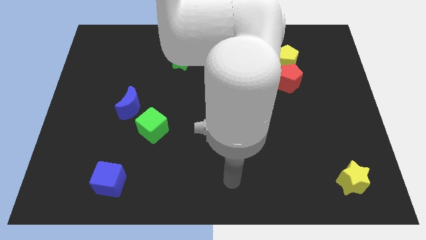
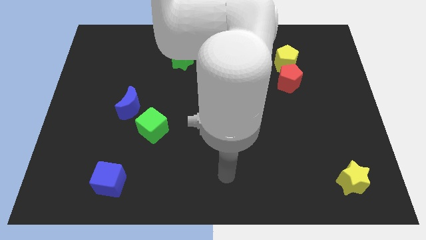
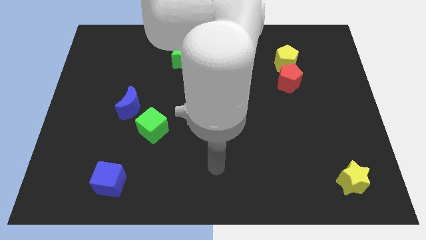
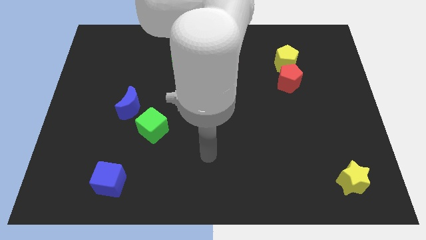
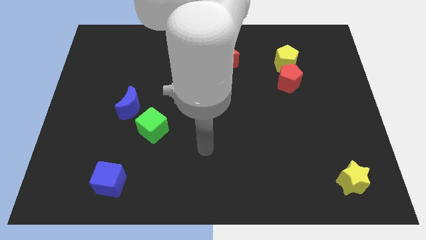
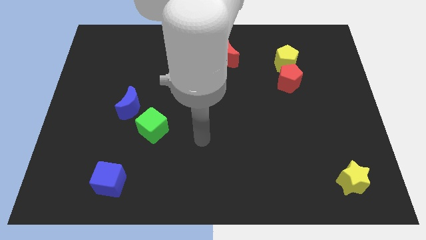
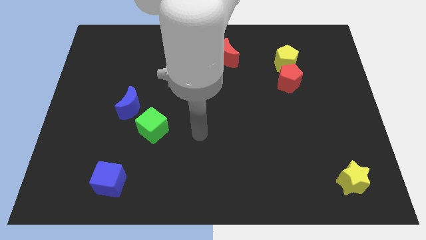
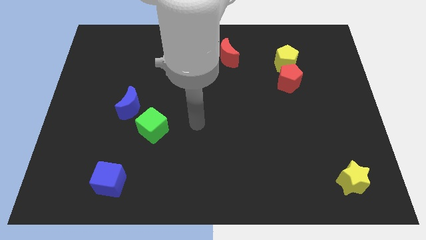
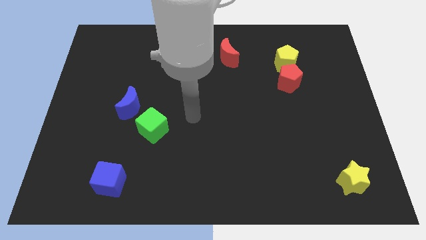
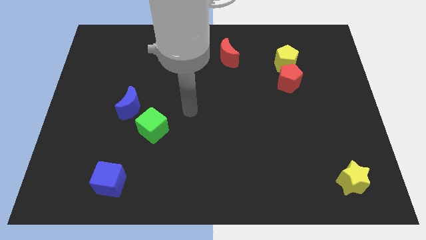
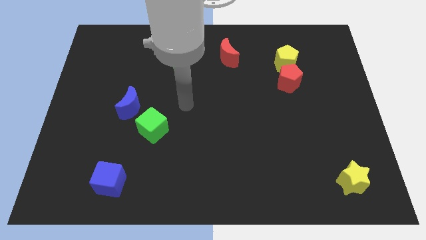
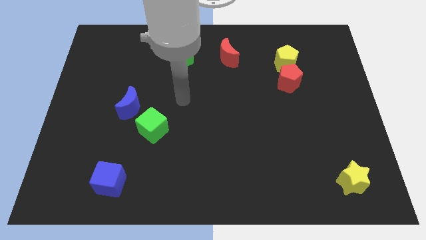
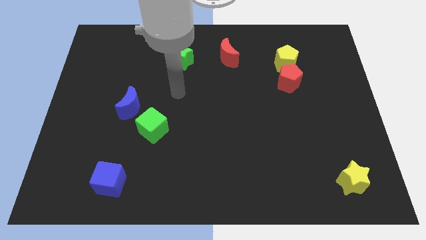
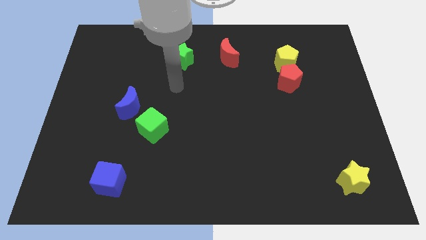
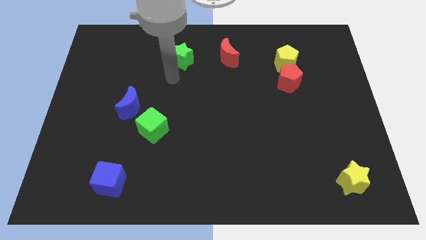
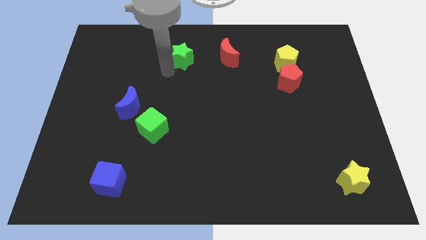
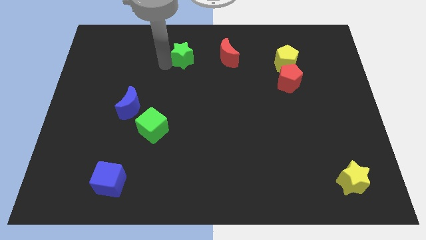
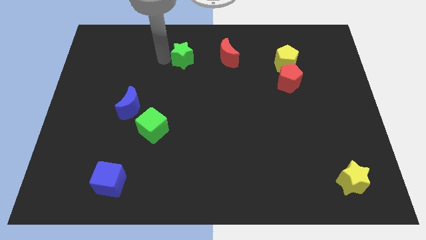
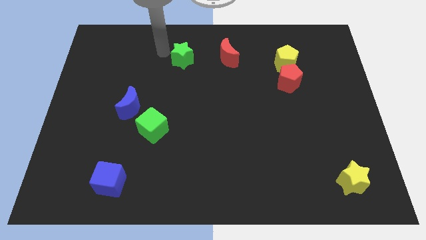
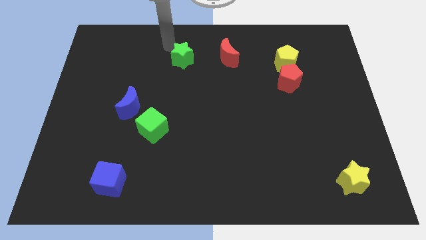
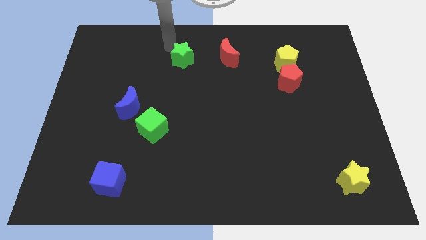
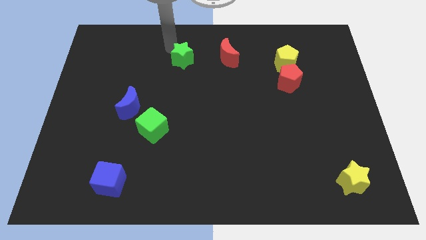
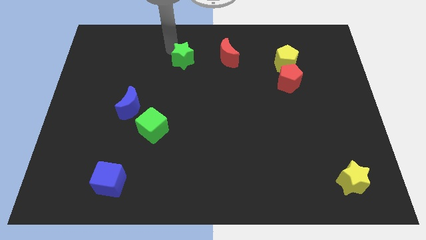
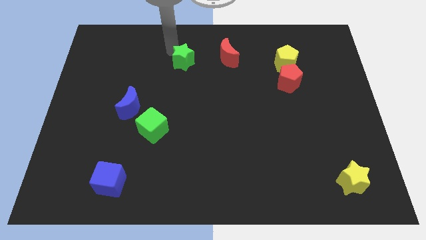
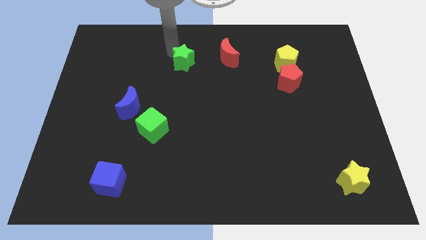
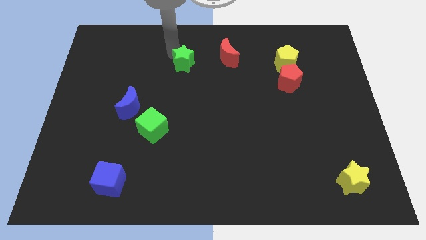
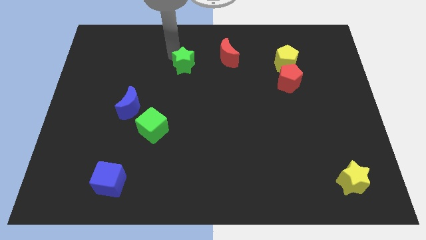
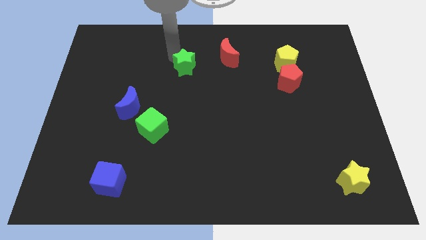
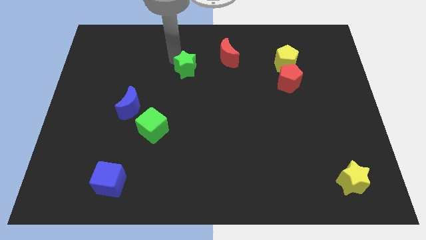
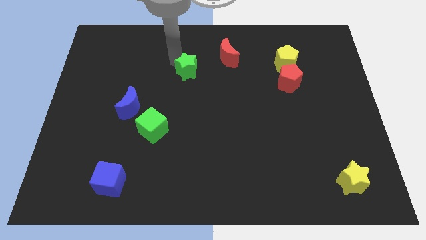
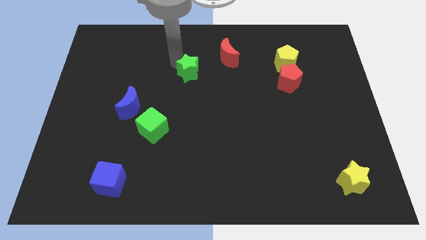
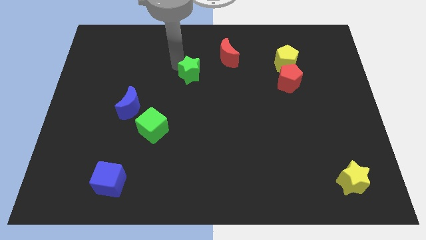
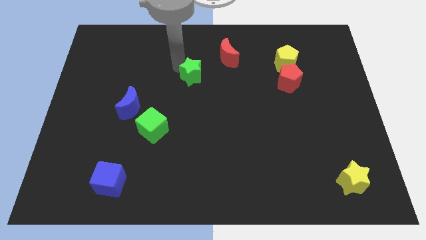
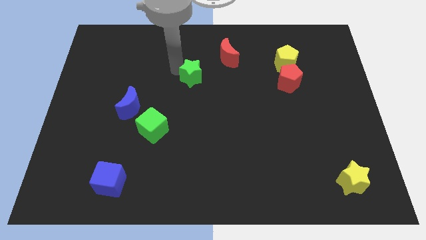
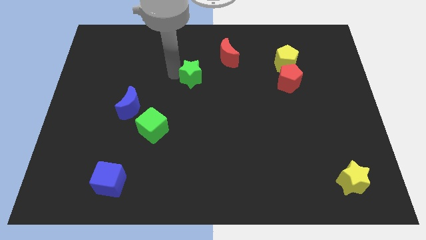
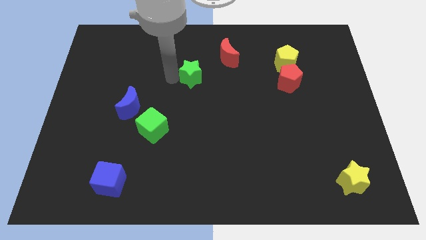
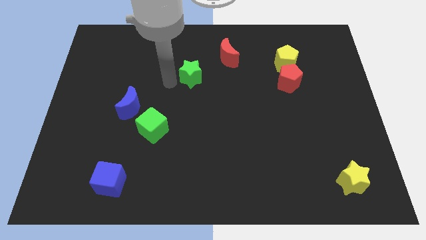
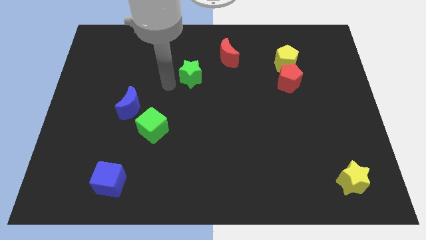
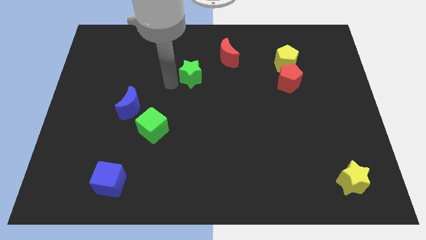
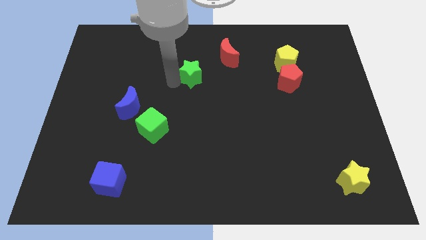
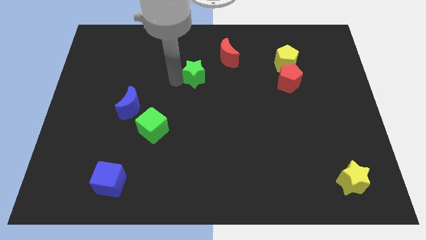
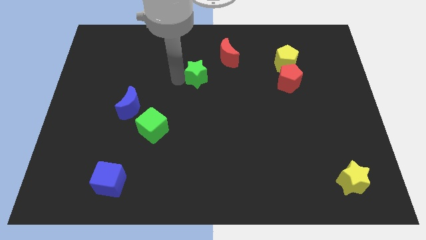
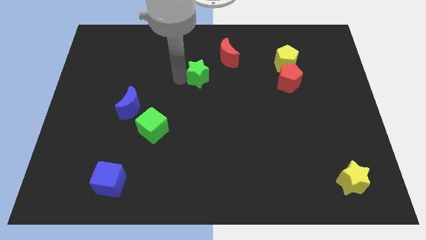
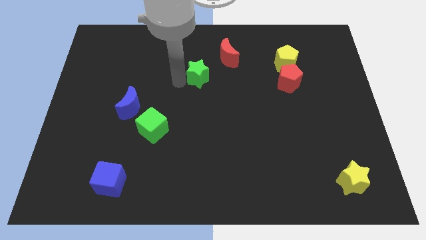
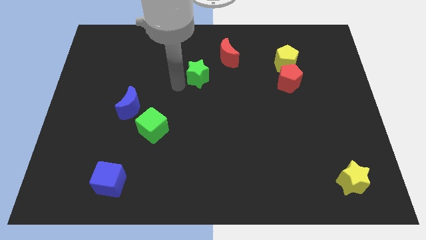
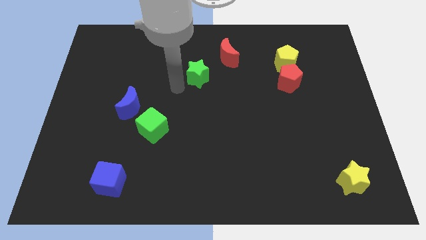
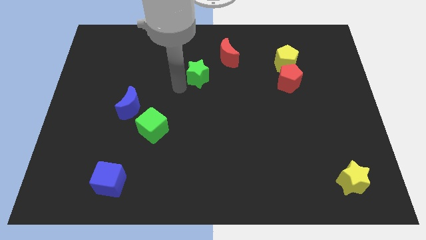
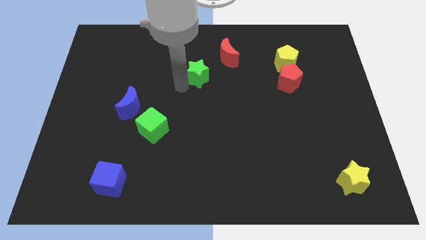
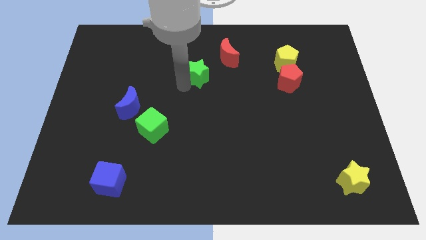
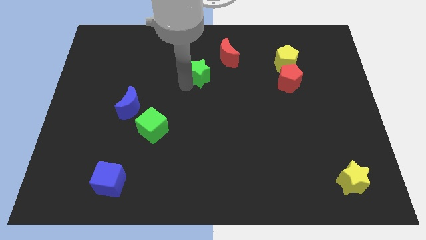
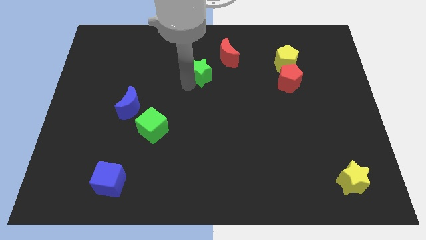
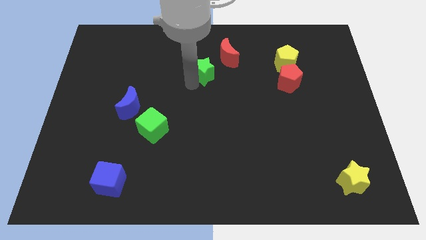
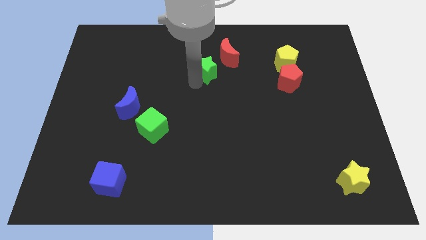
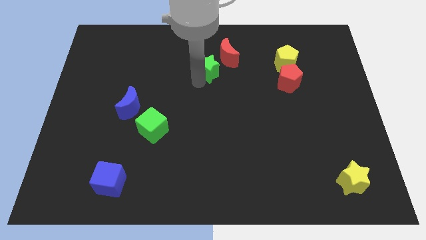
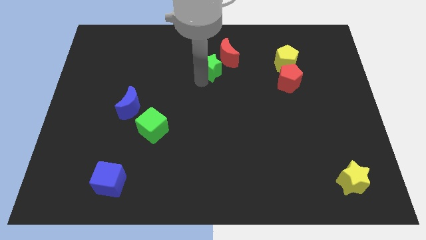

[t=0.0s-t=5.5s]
move the green star right a bit

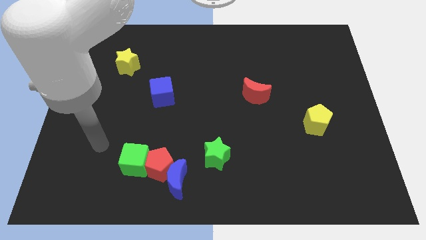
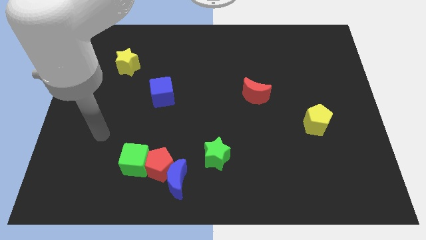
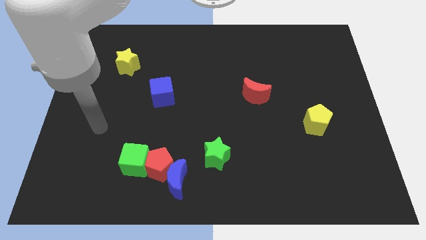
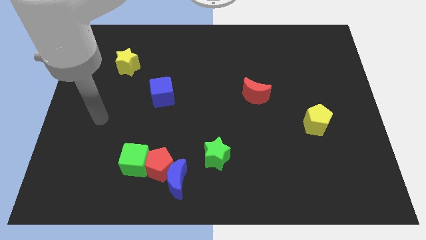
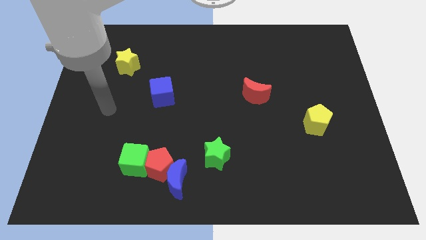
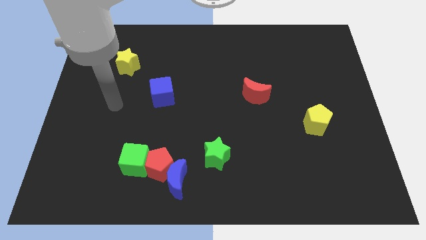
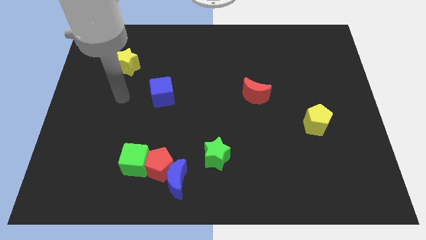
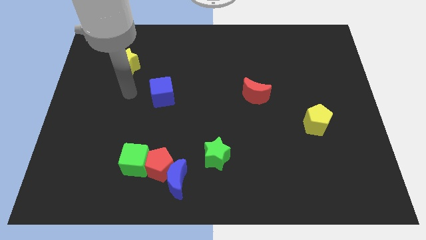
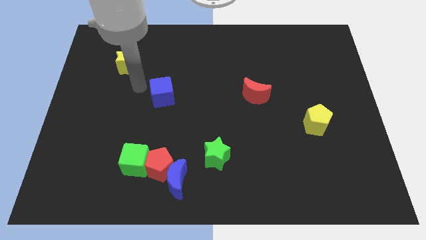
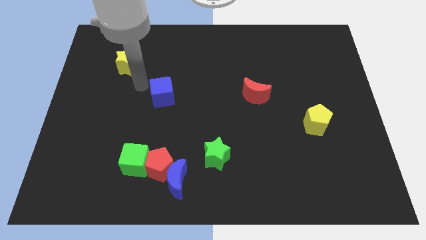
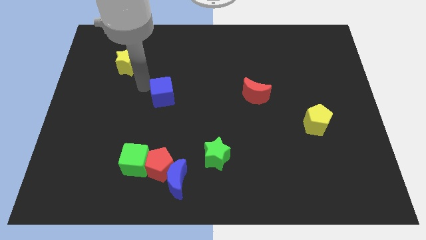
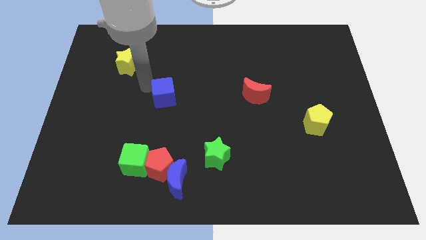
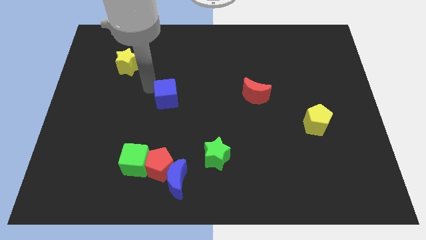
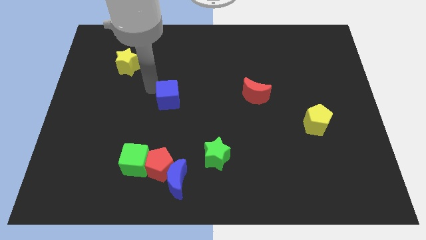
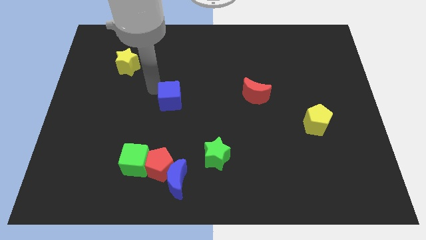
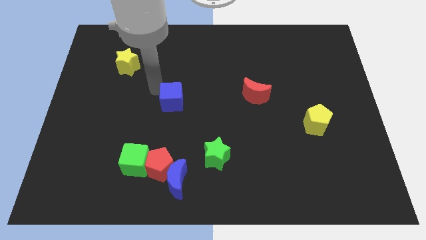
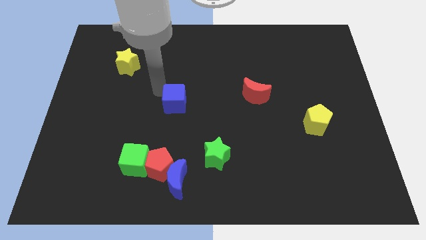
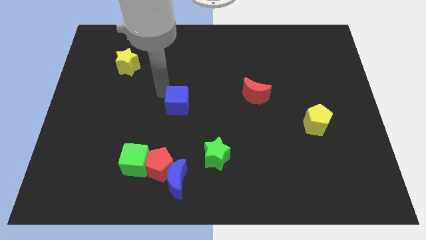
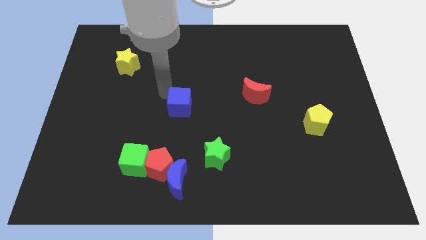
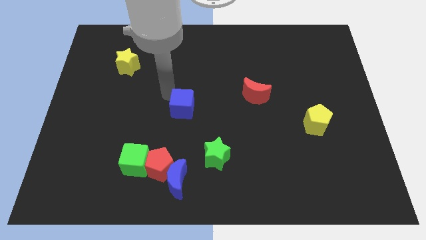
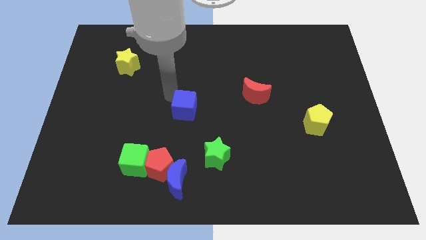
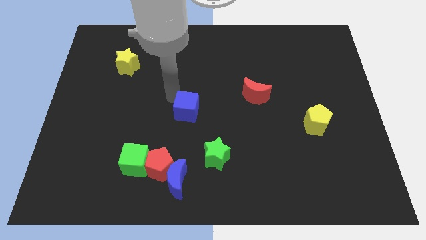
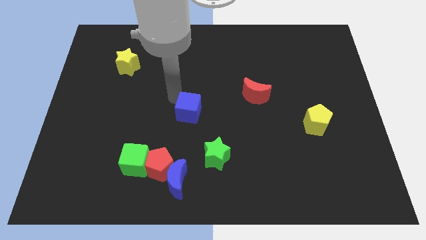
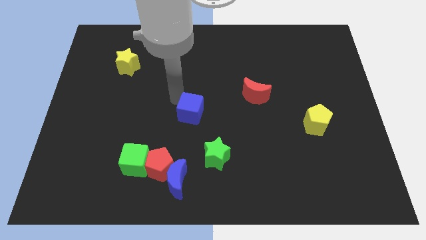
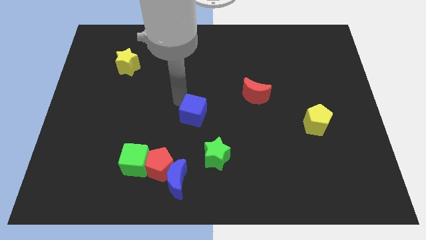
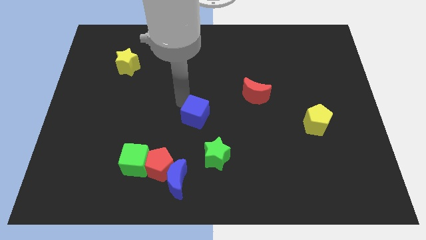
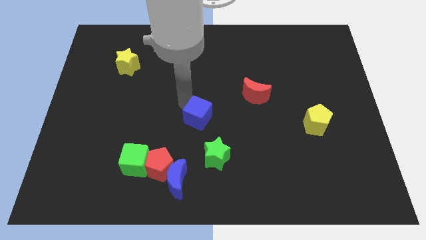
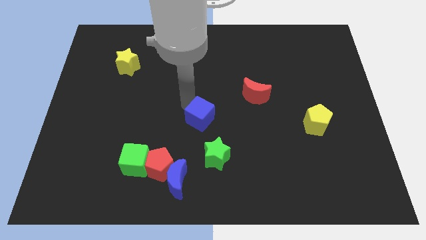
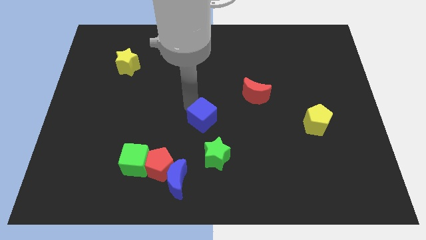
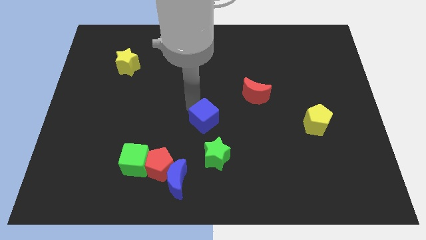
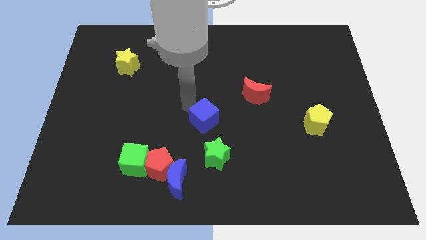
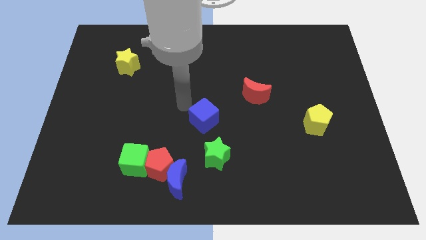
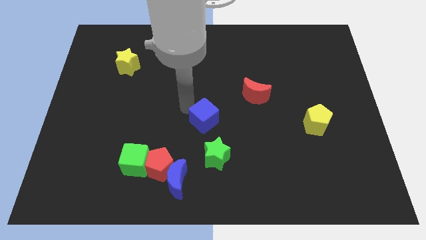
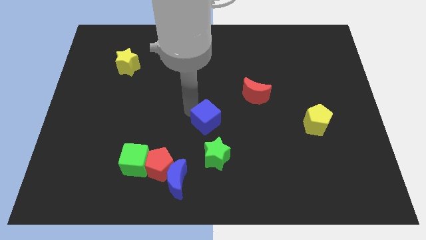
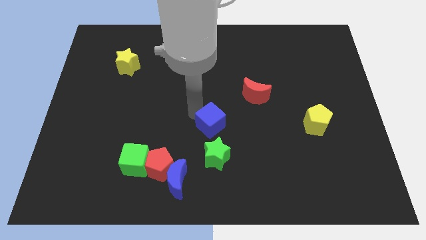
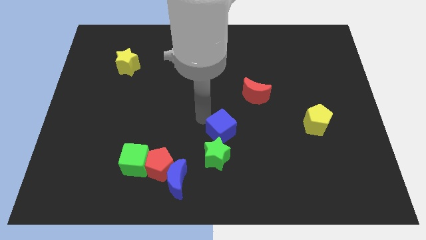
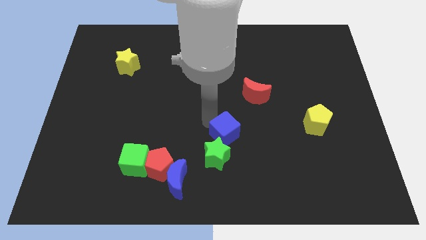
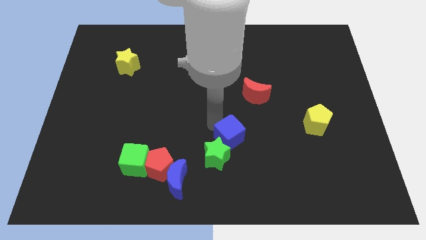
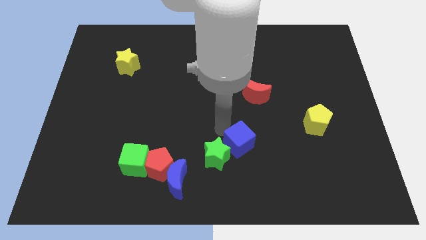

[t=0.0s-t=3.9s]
move the blue cube down and then right
